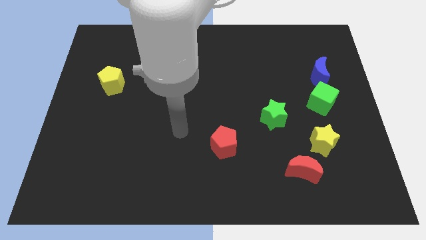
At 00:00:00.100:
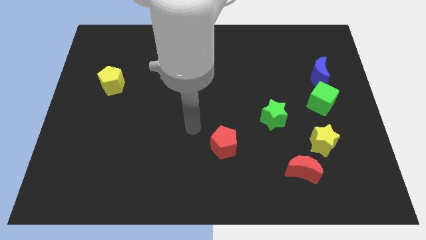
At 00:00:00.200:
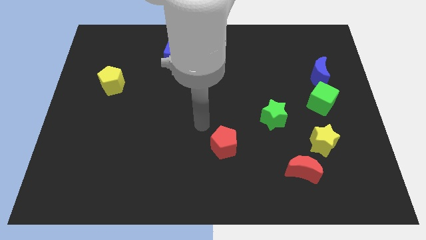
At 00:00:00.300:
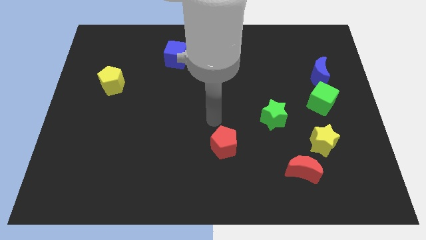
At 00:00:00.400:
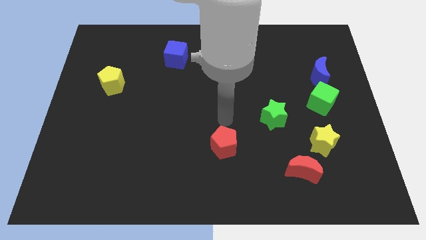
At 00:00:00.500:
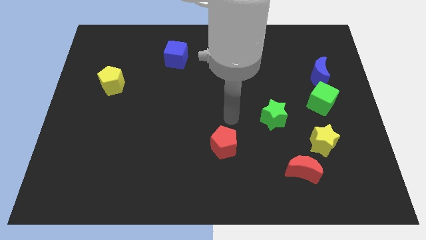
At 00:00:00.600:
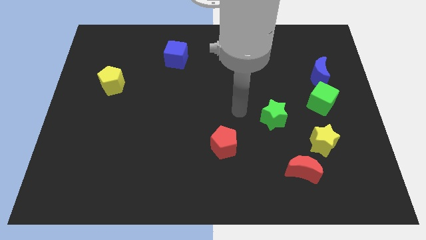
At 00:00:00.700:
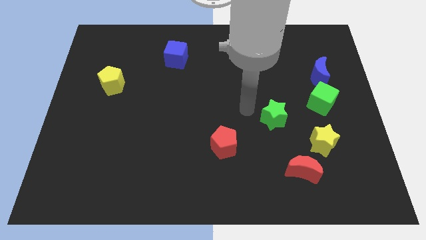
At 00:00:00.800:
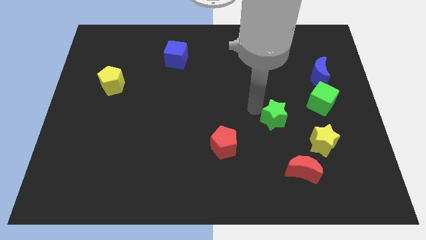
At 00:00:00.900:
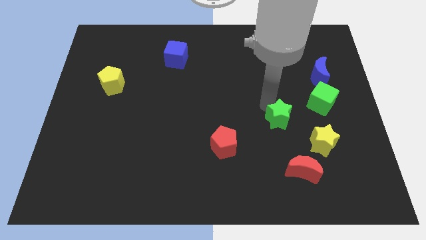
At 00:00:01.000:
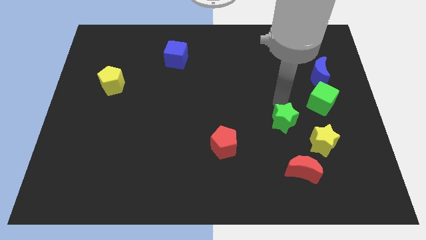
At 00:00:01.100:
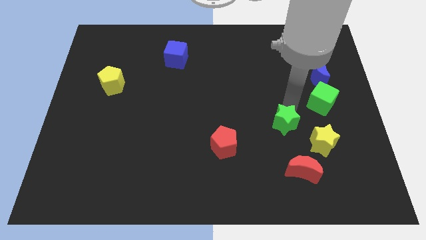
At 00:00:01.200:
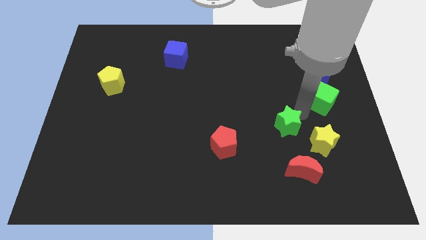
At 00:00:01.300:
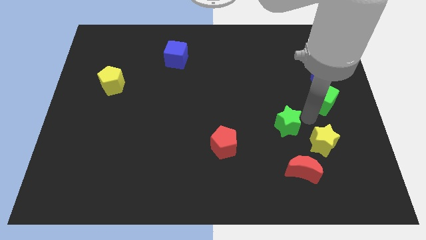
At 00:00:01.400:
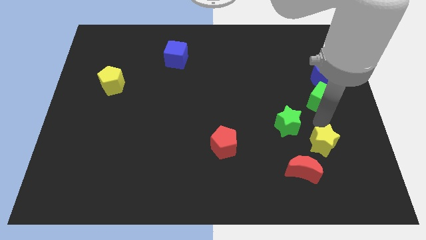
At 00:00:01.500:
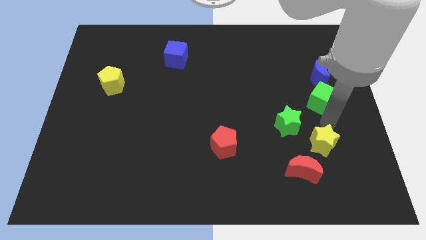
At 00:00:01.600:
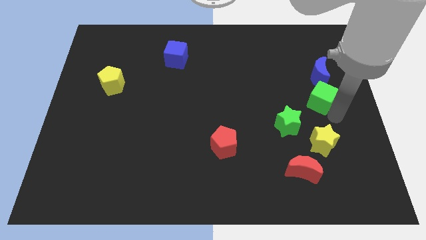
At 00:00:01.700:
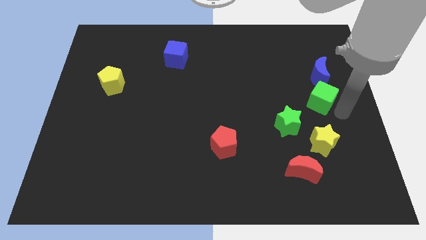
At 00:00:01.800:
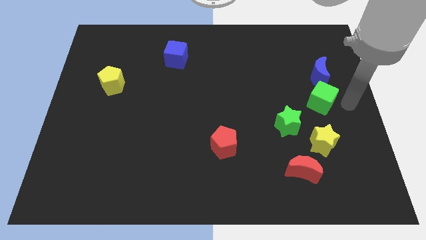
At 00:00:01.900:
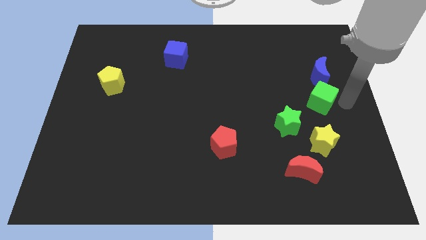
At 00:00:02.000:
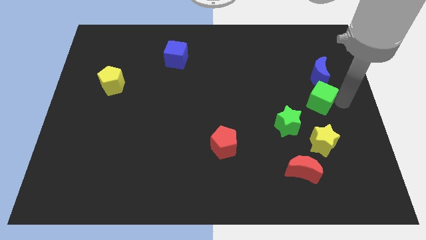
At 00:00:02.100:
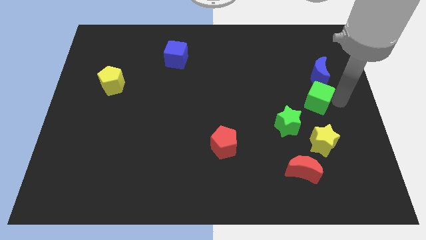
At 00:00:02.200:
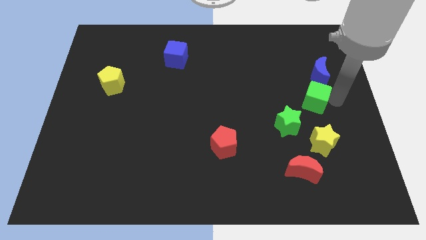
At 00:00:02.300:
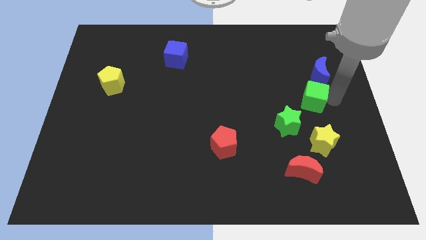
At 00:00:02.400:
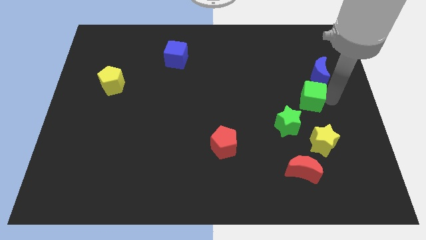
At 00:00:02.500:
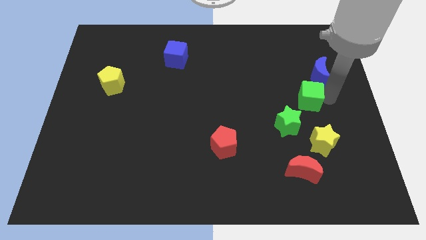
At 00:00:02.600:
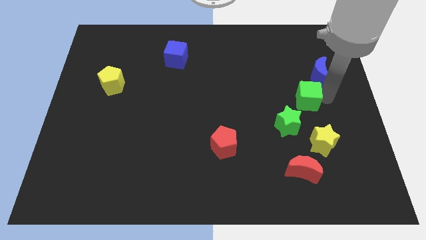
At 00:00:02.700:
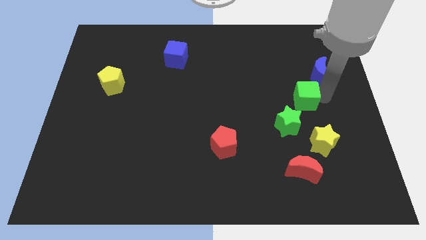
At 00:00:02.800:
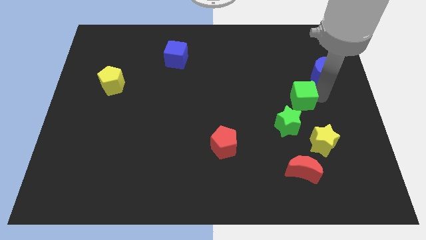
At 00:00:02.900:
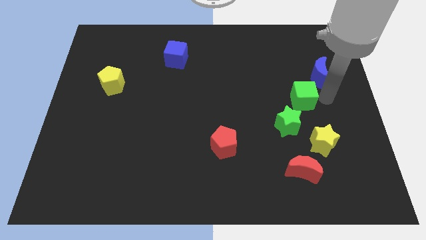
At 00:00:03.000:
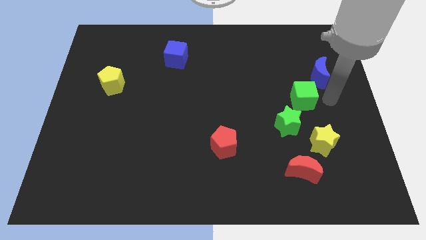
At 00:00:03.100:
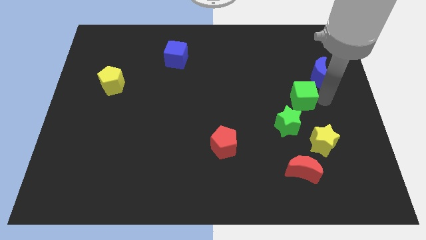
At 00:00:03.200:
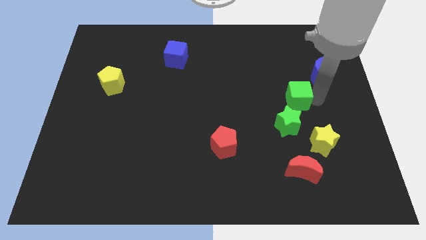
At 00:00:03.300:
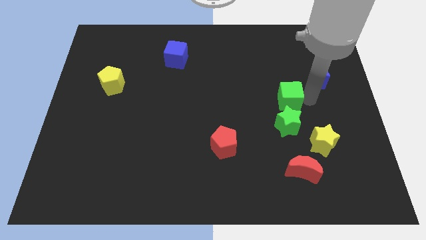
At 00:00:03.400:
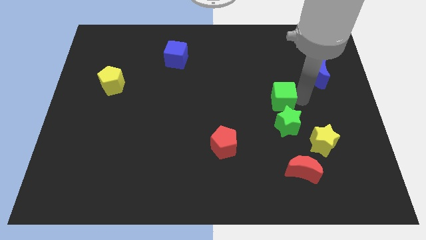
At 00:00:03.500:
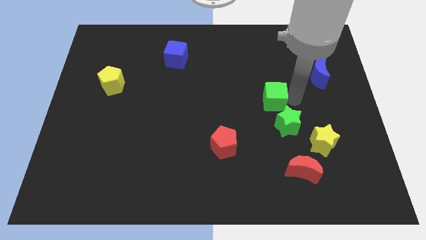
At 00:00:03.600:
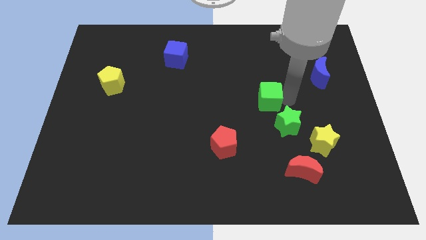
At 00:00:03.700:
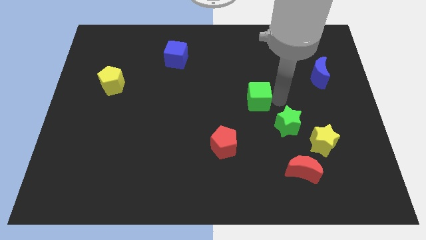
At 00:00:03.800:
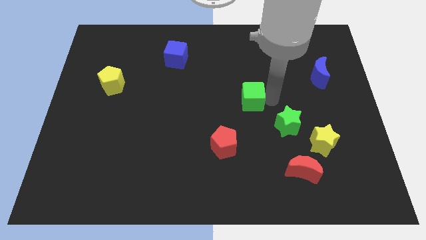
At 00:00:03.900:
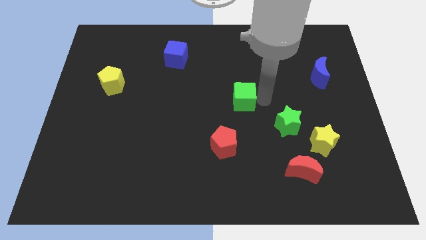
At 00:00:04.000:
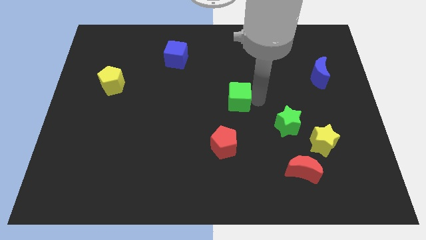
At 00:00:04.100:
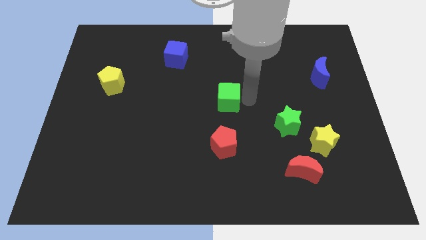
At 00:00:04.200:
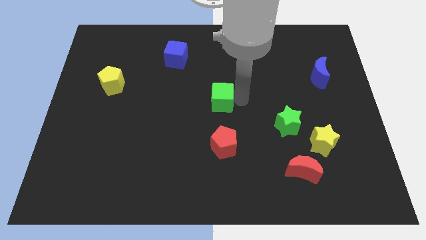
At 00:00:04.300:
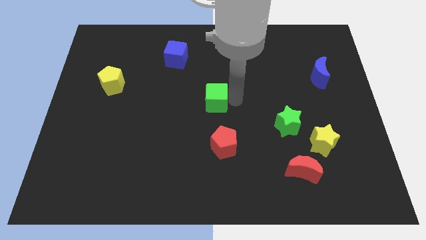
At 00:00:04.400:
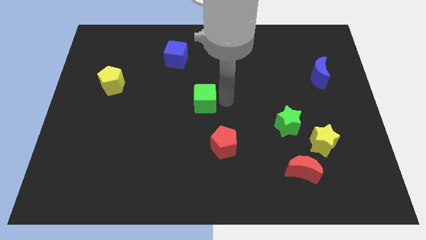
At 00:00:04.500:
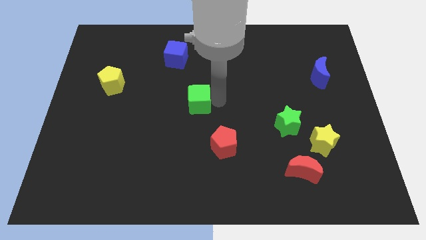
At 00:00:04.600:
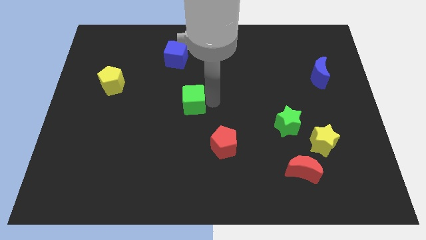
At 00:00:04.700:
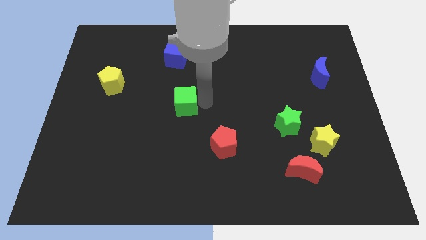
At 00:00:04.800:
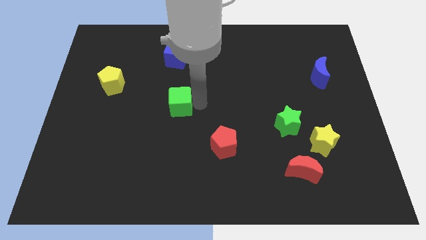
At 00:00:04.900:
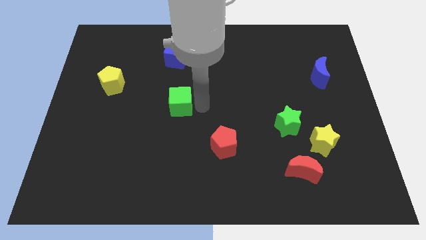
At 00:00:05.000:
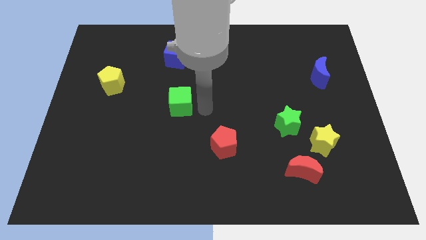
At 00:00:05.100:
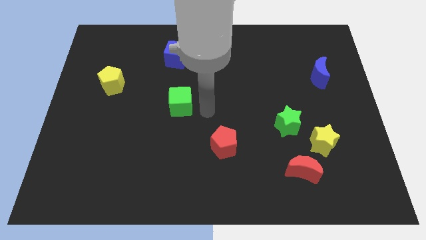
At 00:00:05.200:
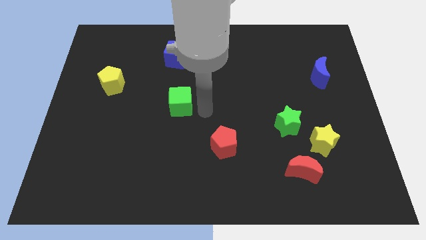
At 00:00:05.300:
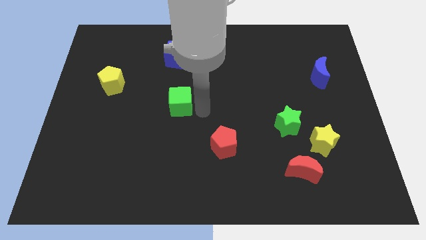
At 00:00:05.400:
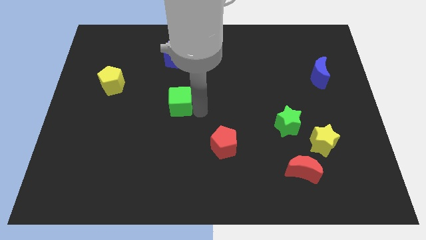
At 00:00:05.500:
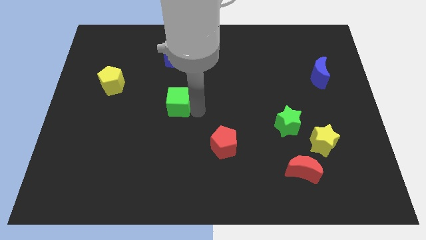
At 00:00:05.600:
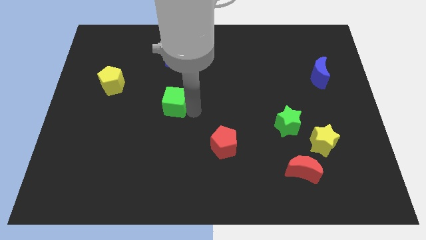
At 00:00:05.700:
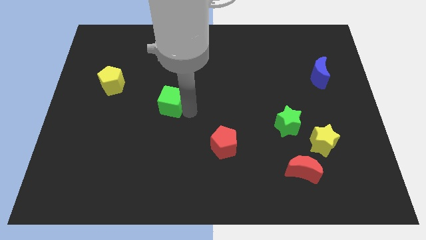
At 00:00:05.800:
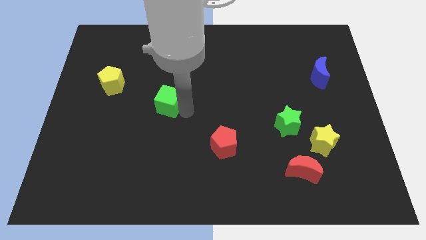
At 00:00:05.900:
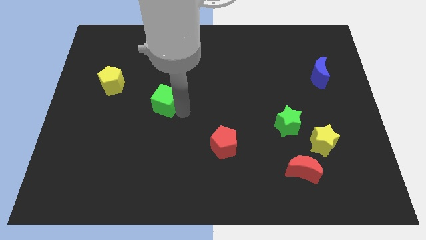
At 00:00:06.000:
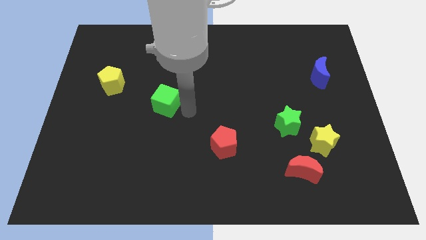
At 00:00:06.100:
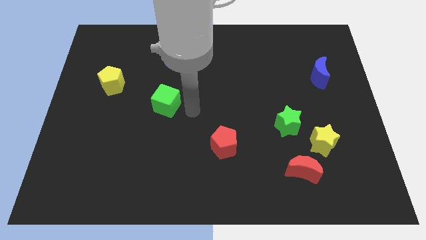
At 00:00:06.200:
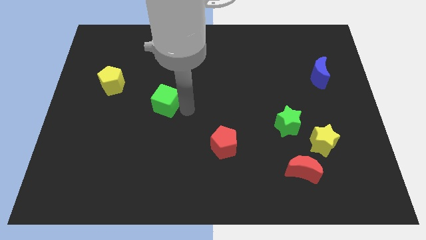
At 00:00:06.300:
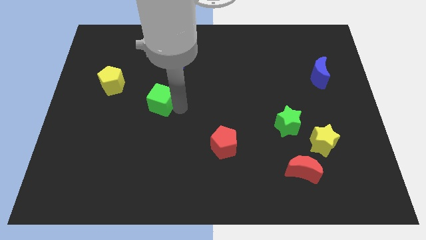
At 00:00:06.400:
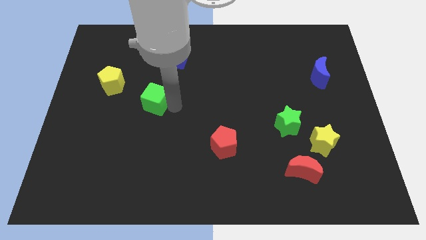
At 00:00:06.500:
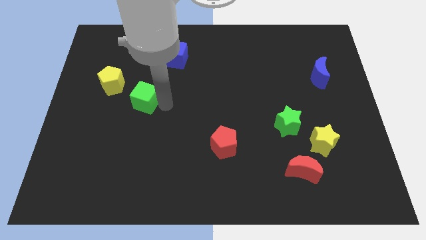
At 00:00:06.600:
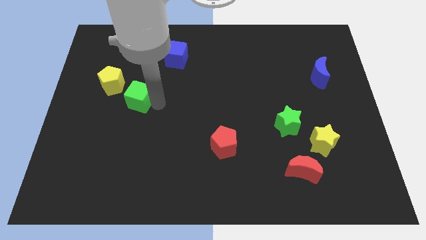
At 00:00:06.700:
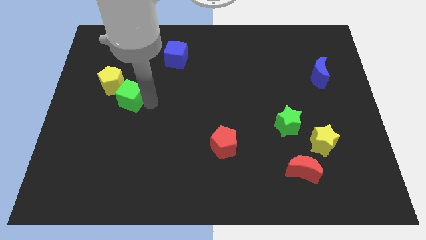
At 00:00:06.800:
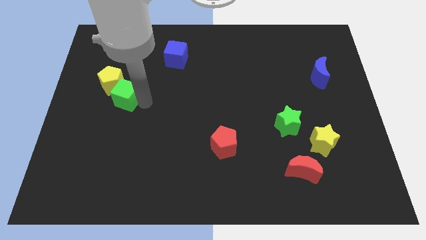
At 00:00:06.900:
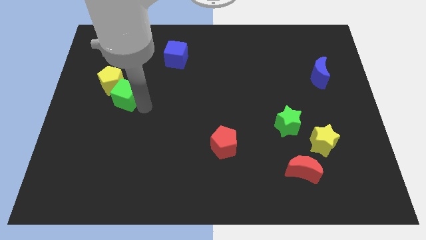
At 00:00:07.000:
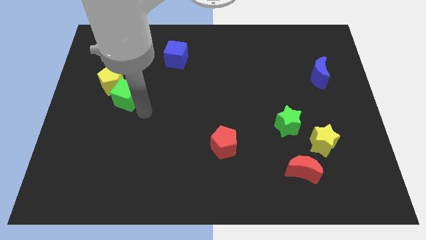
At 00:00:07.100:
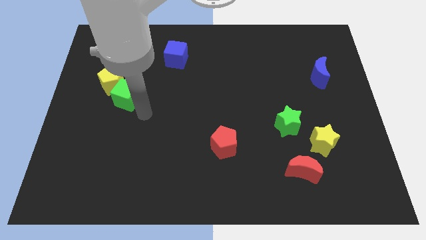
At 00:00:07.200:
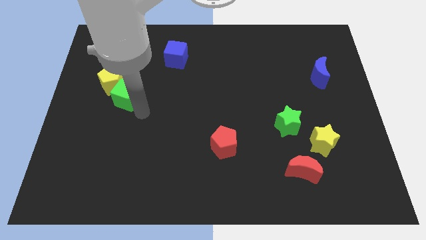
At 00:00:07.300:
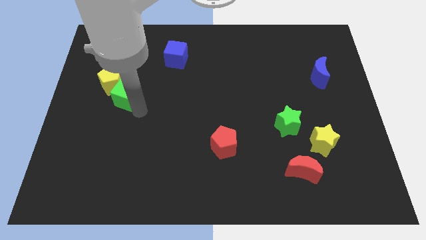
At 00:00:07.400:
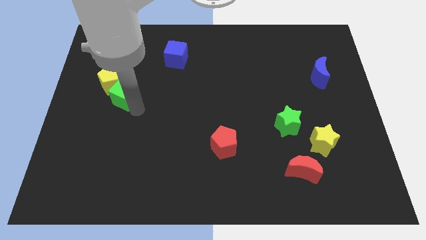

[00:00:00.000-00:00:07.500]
put the green cube to the yellow pentagon

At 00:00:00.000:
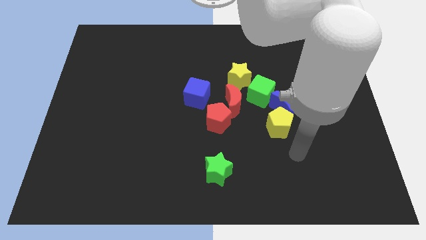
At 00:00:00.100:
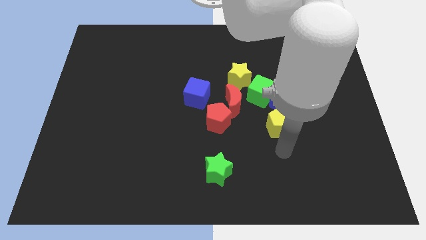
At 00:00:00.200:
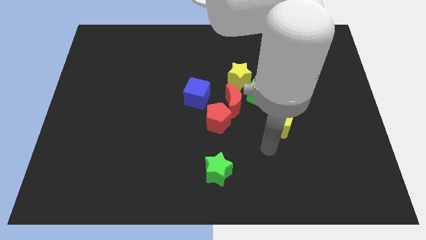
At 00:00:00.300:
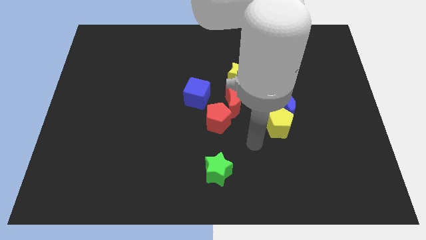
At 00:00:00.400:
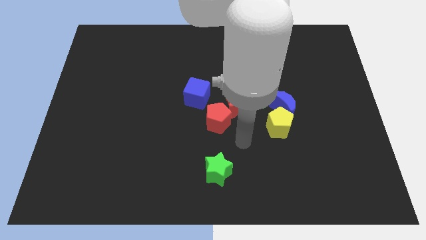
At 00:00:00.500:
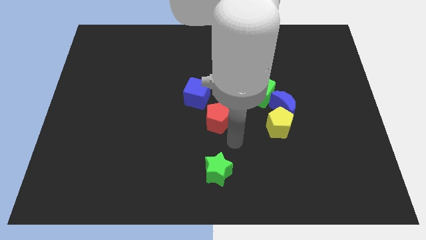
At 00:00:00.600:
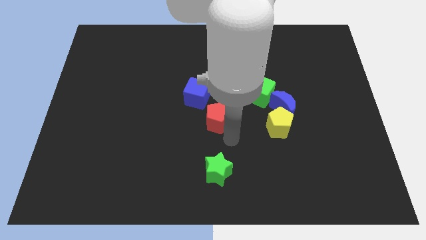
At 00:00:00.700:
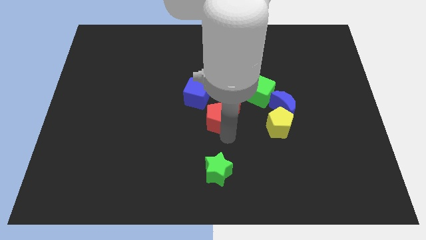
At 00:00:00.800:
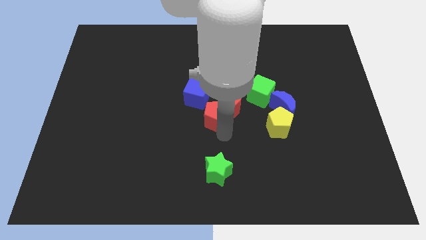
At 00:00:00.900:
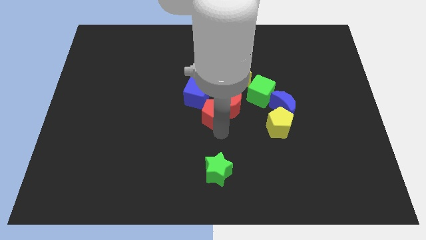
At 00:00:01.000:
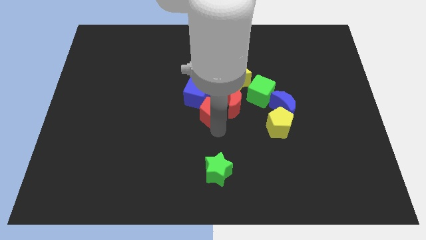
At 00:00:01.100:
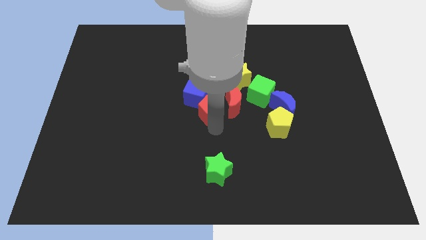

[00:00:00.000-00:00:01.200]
put the red pentagon towards the blue cube
